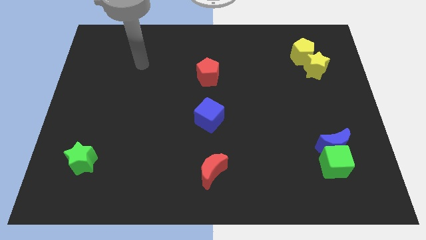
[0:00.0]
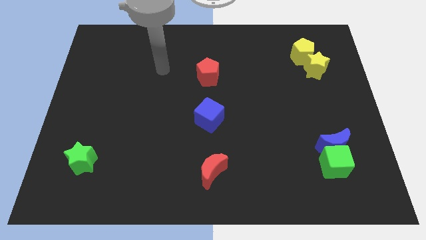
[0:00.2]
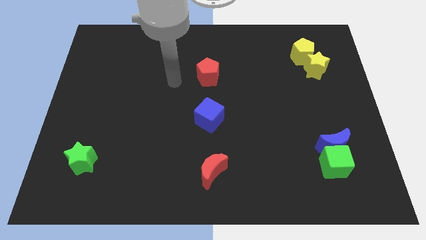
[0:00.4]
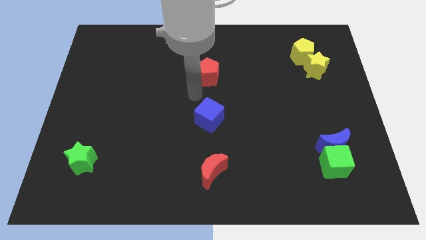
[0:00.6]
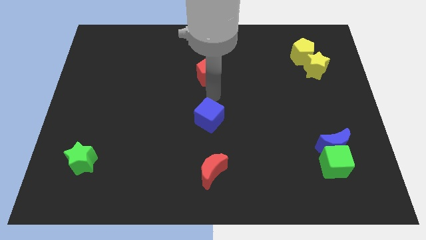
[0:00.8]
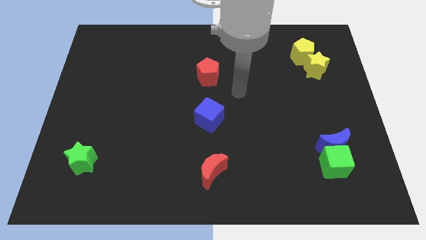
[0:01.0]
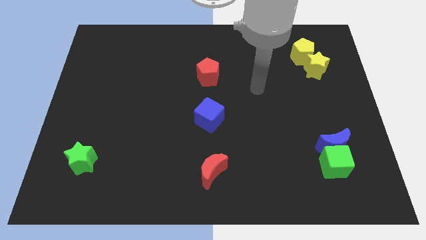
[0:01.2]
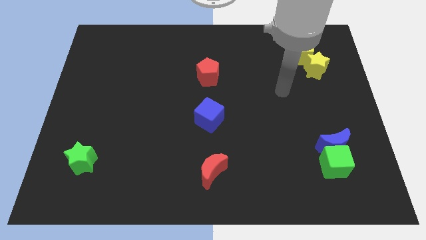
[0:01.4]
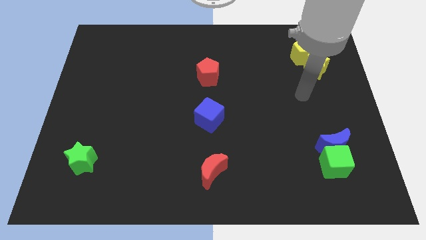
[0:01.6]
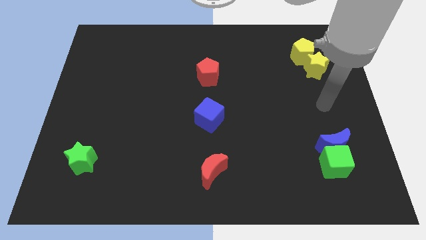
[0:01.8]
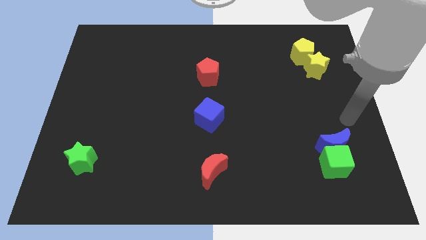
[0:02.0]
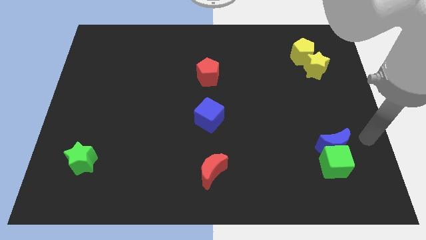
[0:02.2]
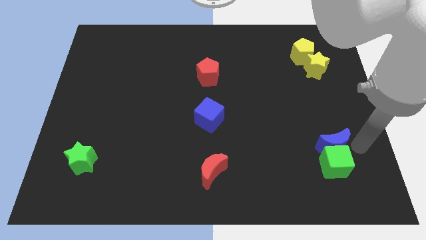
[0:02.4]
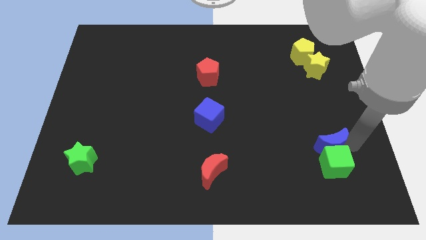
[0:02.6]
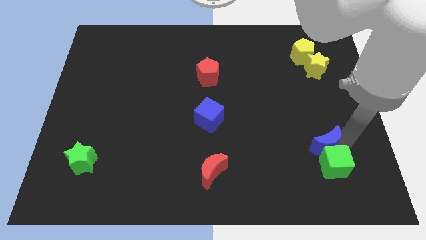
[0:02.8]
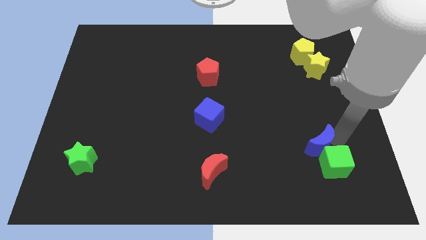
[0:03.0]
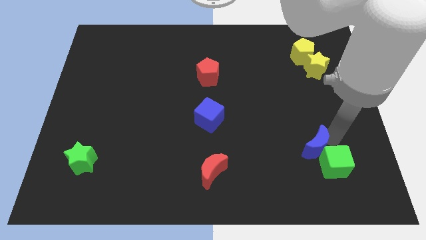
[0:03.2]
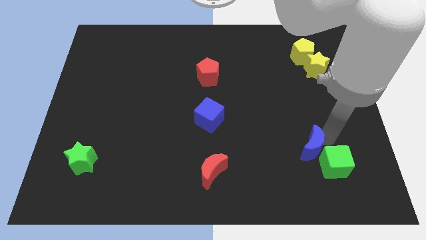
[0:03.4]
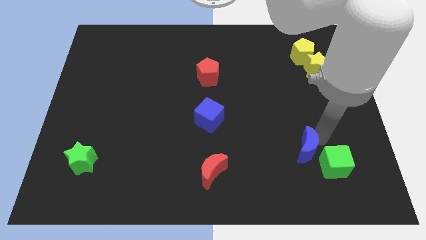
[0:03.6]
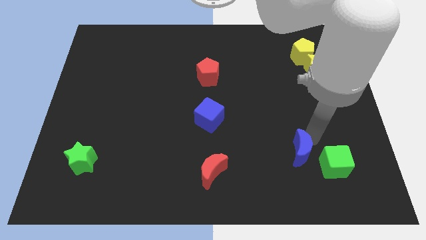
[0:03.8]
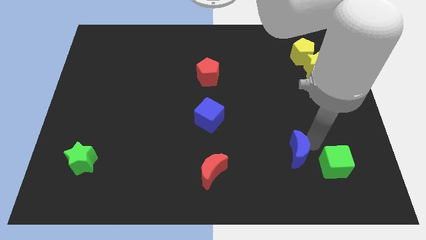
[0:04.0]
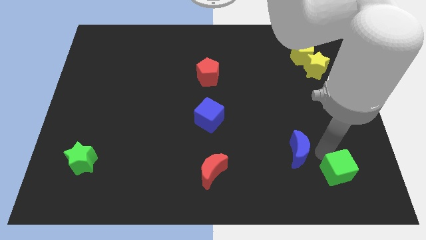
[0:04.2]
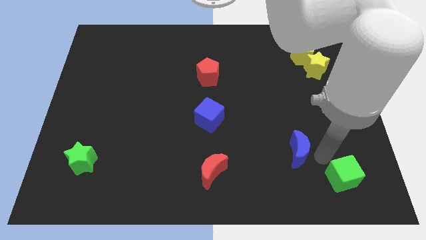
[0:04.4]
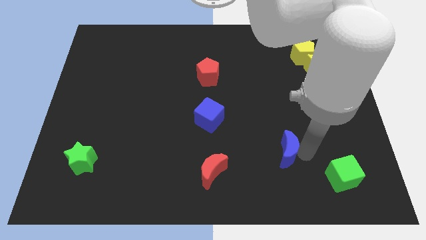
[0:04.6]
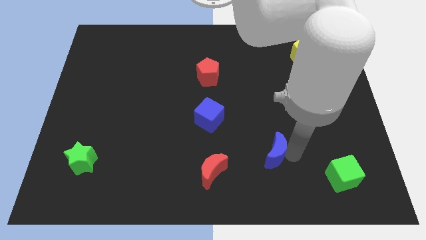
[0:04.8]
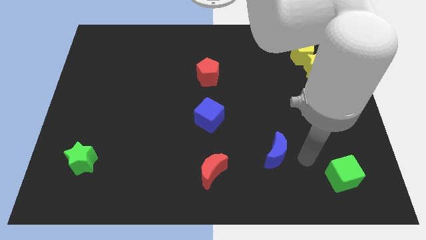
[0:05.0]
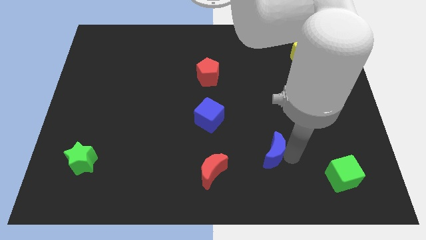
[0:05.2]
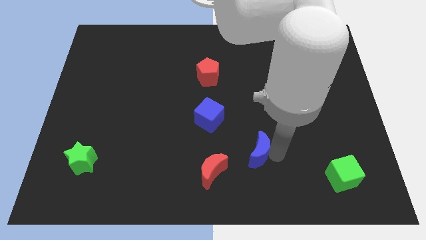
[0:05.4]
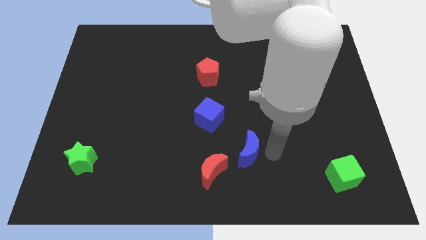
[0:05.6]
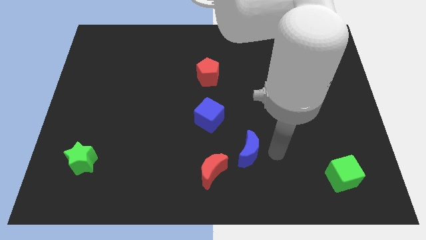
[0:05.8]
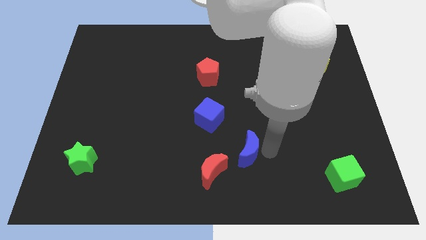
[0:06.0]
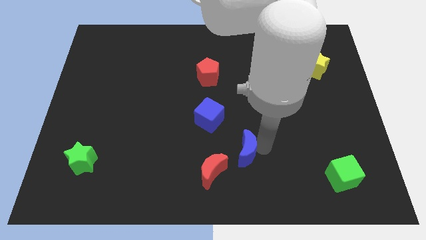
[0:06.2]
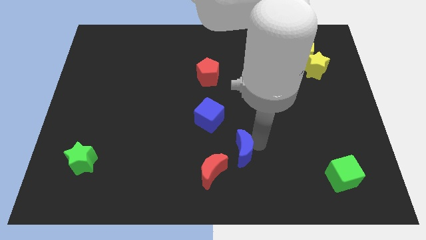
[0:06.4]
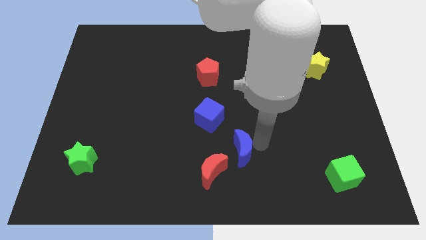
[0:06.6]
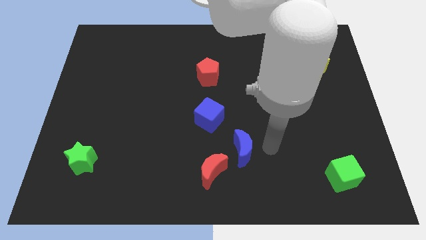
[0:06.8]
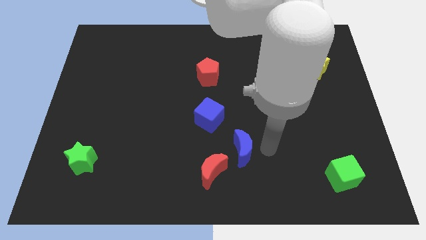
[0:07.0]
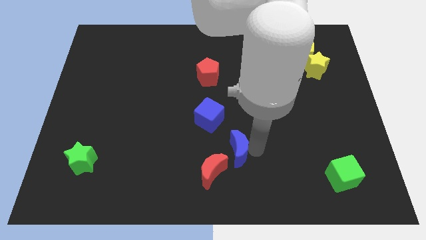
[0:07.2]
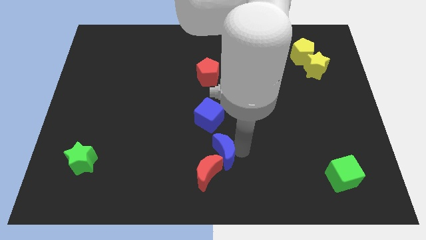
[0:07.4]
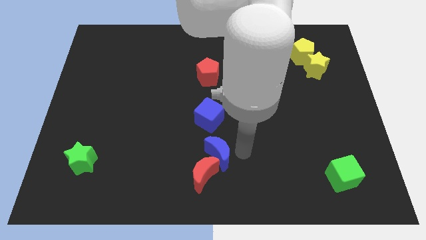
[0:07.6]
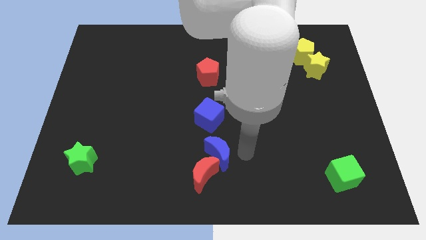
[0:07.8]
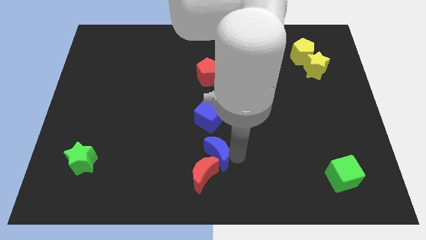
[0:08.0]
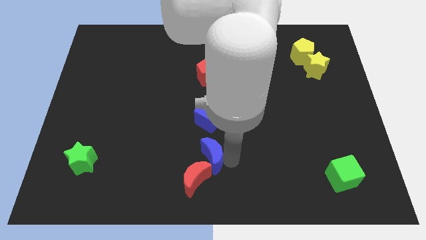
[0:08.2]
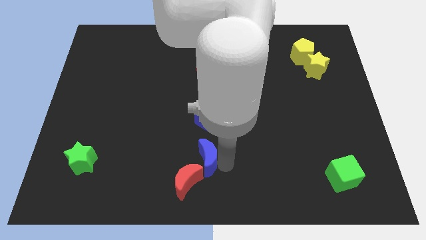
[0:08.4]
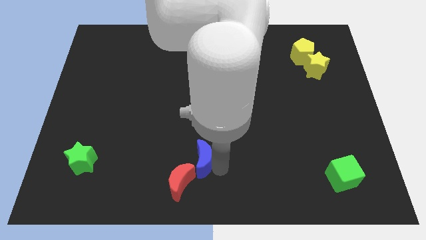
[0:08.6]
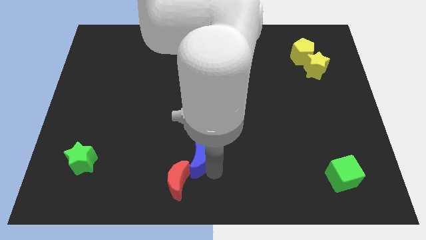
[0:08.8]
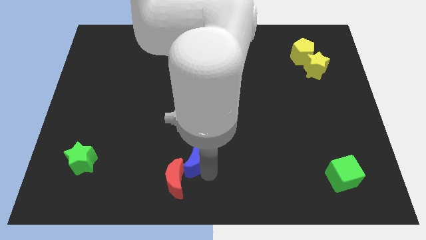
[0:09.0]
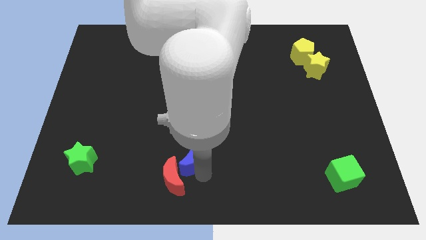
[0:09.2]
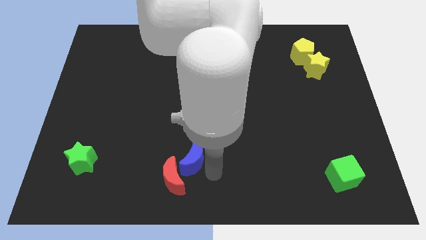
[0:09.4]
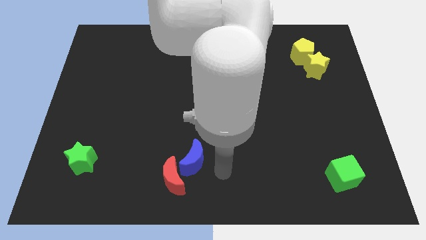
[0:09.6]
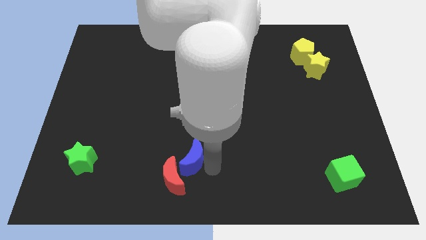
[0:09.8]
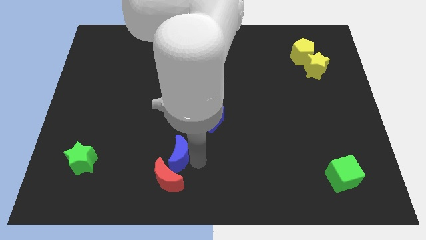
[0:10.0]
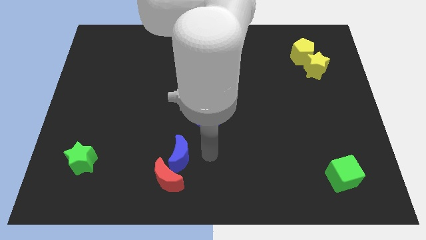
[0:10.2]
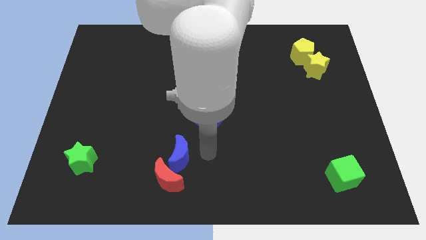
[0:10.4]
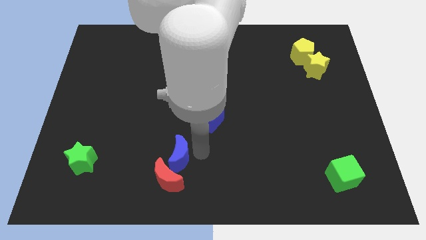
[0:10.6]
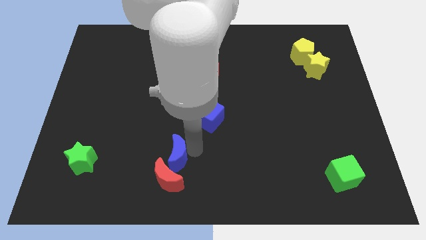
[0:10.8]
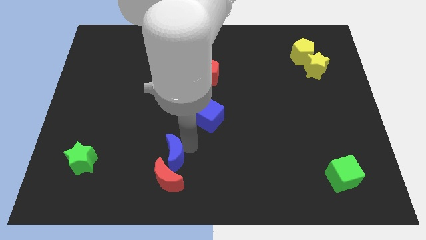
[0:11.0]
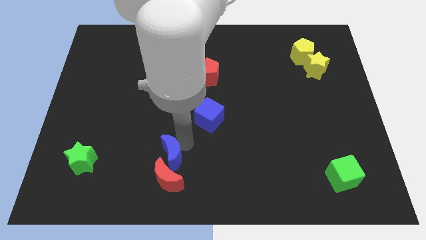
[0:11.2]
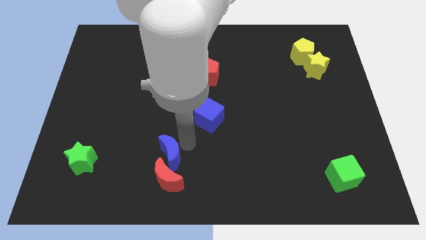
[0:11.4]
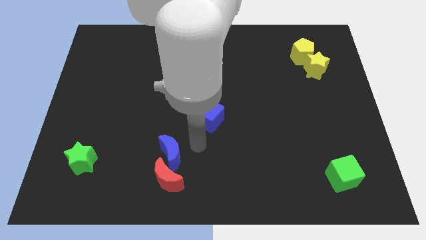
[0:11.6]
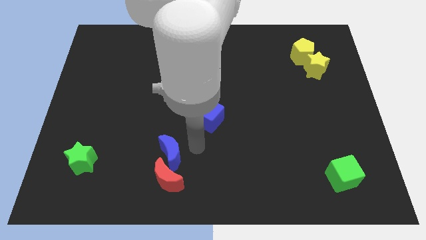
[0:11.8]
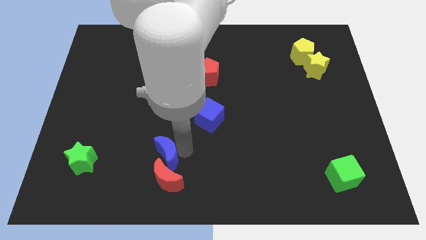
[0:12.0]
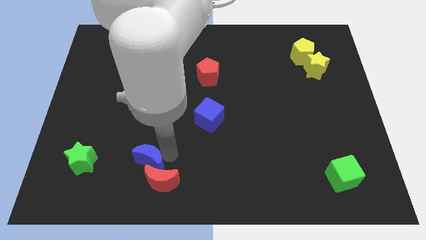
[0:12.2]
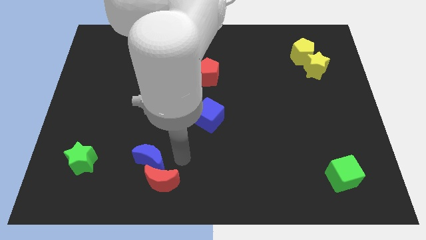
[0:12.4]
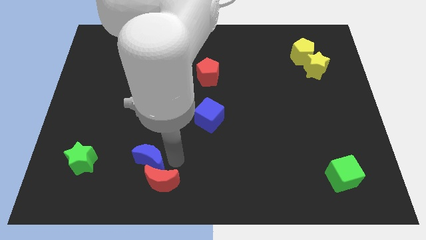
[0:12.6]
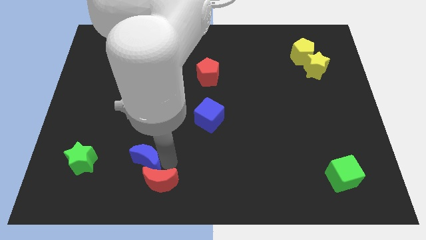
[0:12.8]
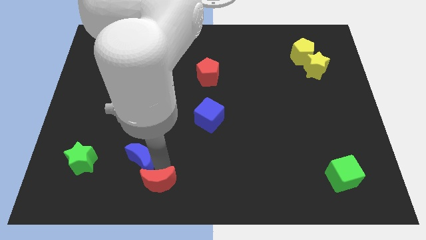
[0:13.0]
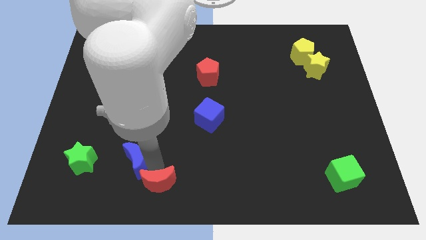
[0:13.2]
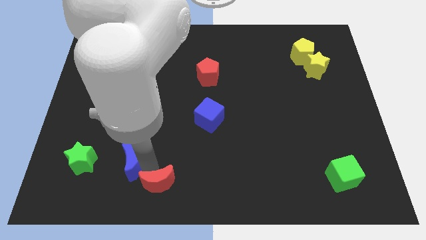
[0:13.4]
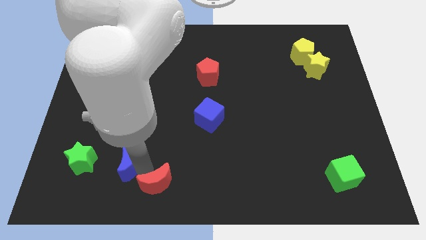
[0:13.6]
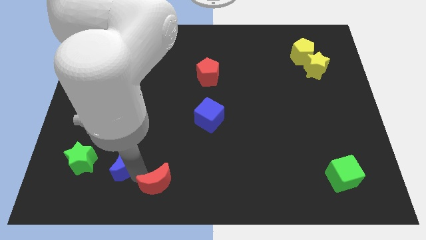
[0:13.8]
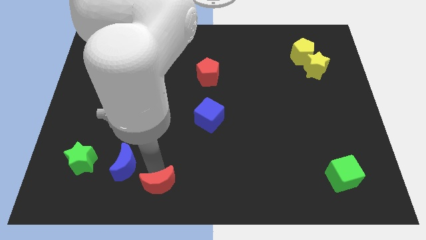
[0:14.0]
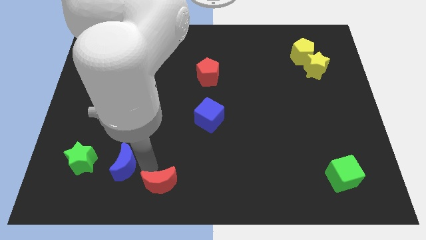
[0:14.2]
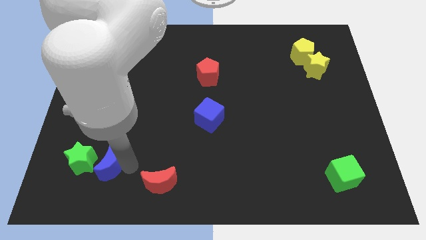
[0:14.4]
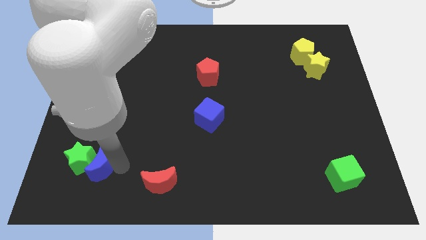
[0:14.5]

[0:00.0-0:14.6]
put the blue moon close to the green star

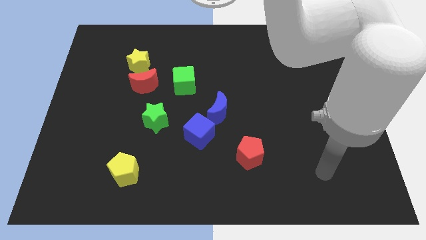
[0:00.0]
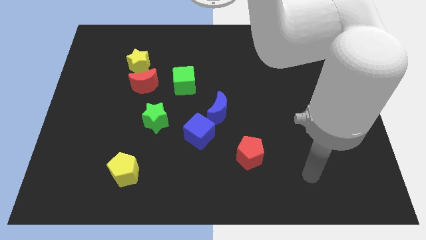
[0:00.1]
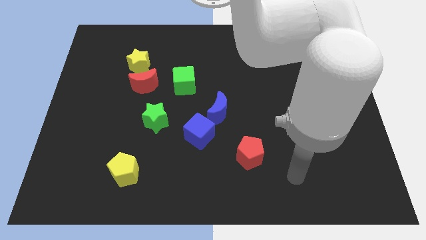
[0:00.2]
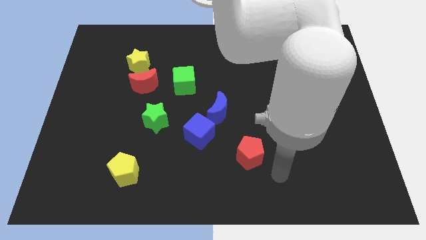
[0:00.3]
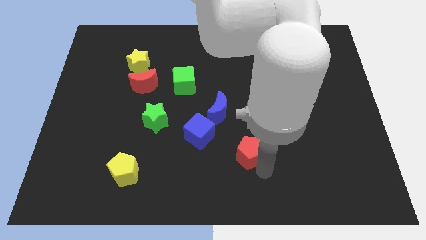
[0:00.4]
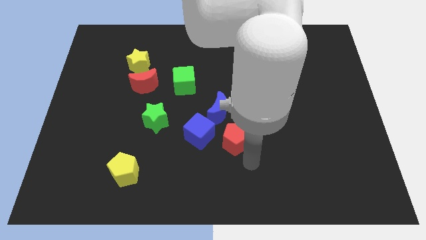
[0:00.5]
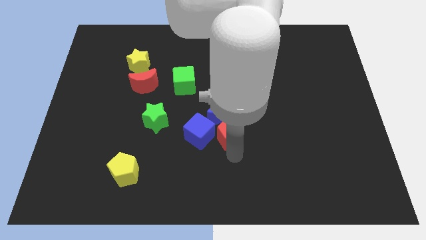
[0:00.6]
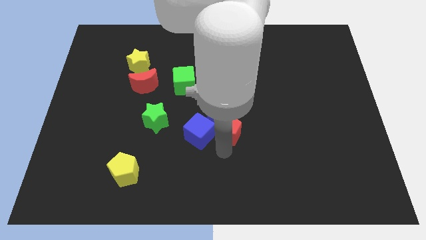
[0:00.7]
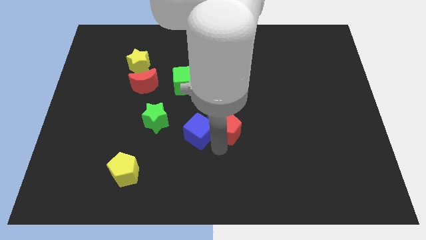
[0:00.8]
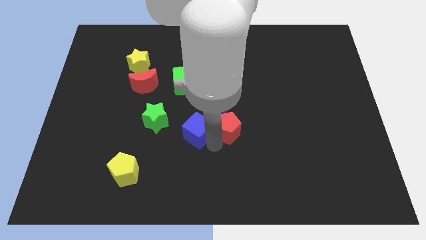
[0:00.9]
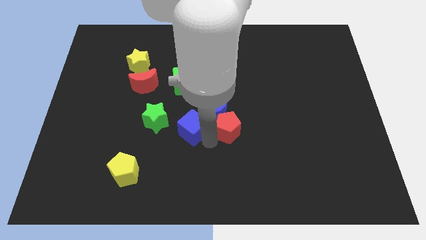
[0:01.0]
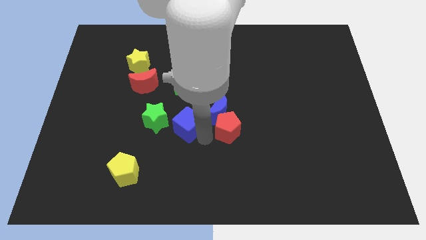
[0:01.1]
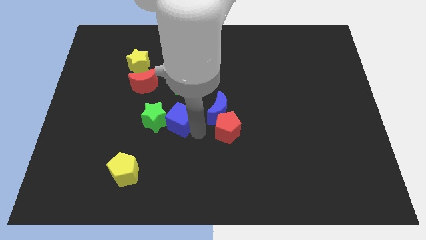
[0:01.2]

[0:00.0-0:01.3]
put the blue cube towards the green star
